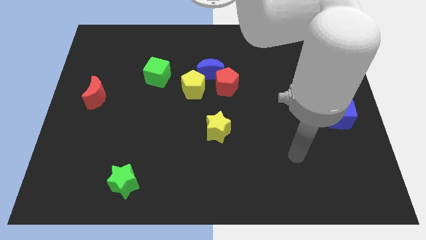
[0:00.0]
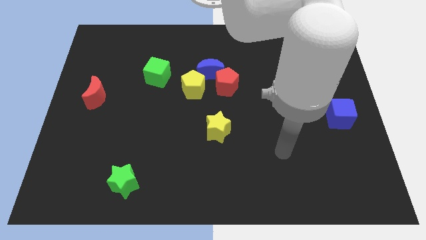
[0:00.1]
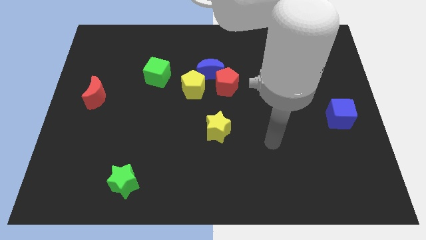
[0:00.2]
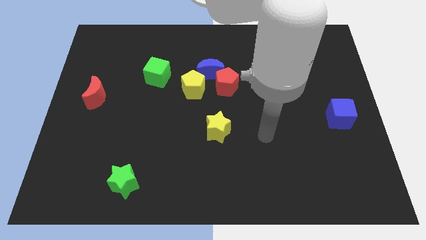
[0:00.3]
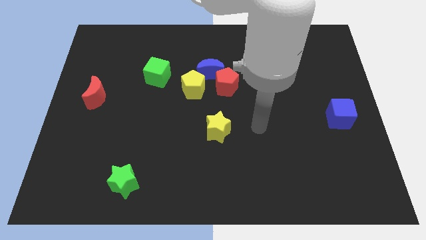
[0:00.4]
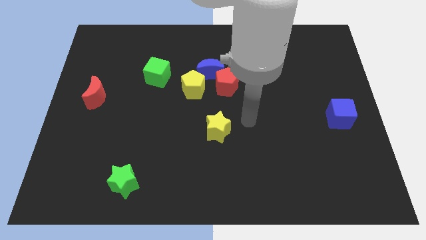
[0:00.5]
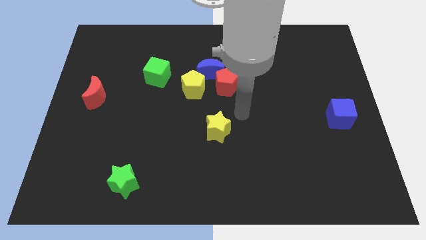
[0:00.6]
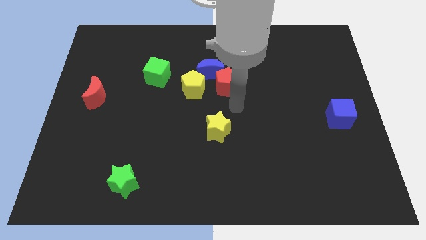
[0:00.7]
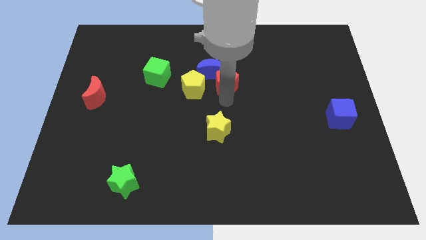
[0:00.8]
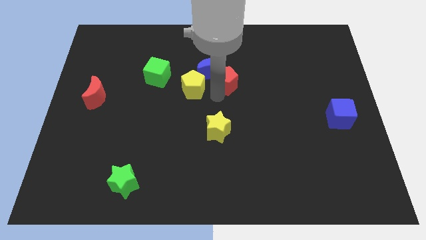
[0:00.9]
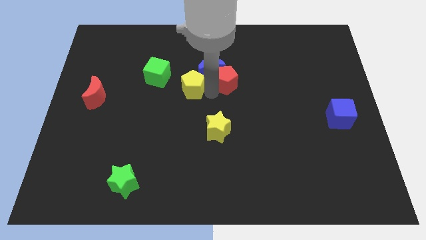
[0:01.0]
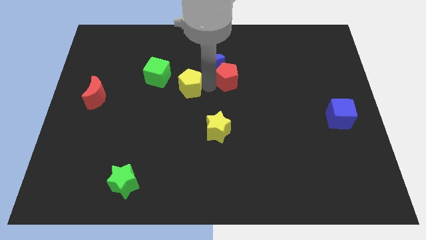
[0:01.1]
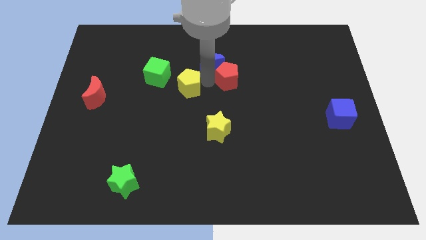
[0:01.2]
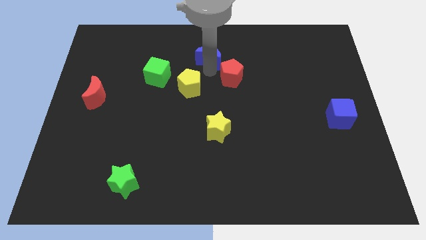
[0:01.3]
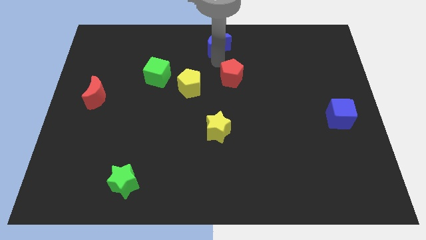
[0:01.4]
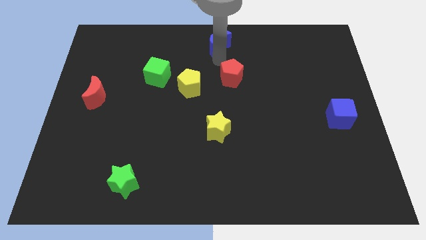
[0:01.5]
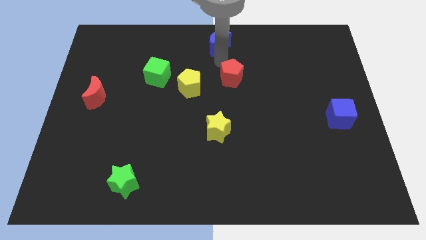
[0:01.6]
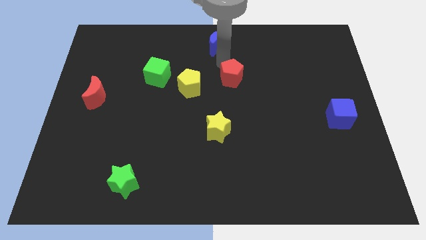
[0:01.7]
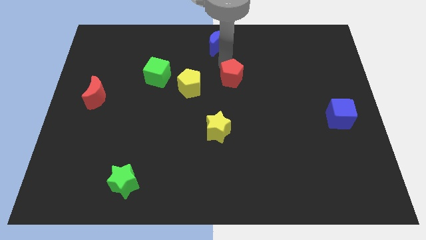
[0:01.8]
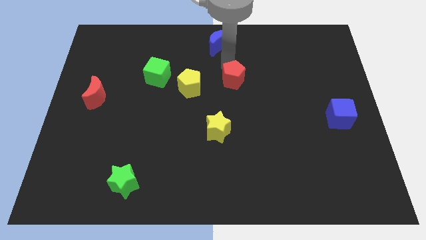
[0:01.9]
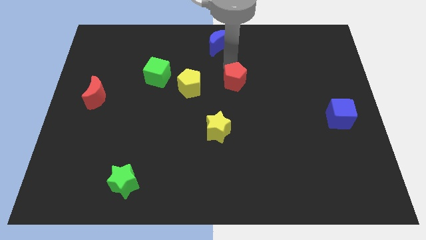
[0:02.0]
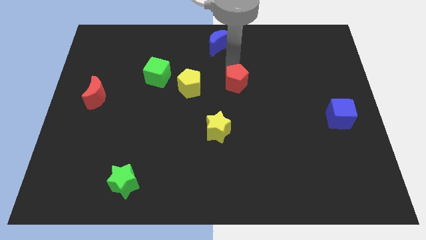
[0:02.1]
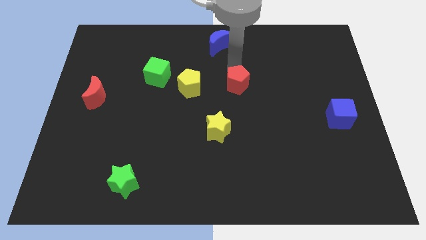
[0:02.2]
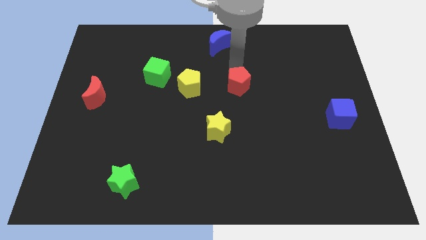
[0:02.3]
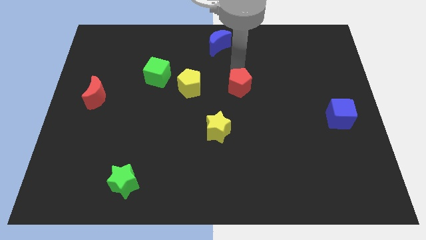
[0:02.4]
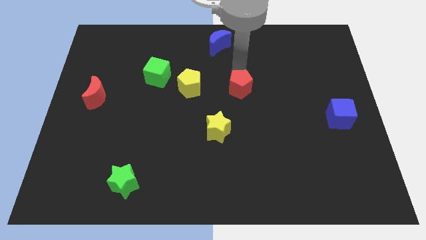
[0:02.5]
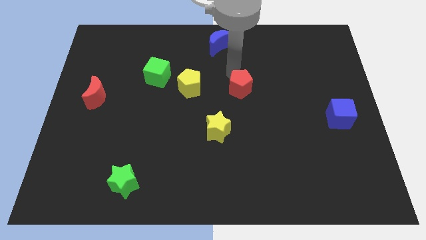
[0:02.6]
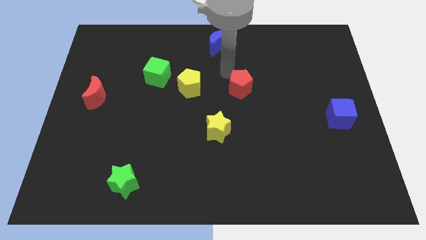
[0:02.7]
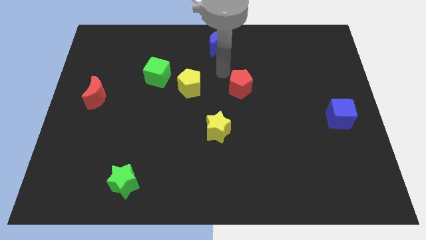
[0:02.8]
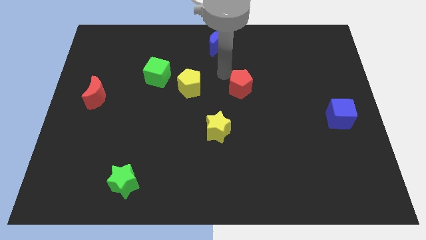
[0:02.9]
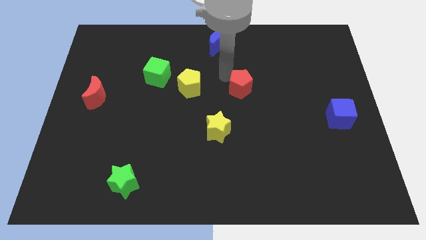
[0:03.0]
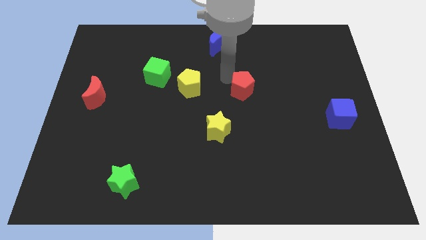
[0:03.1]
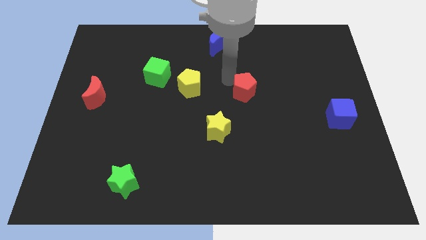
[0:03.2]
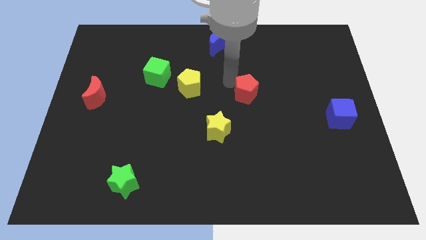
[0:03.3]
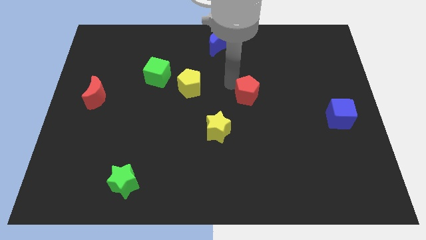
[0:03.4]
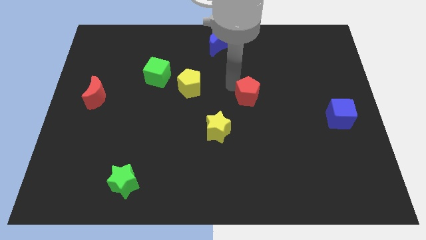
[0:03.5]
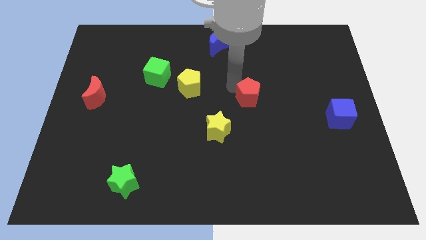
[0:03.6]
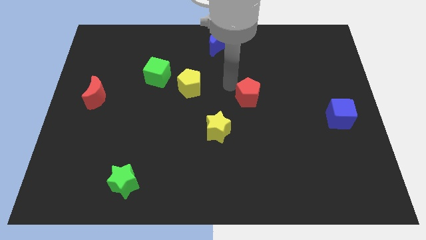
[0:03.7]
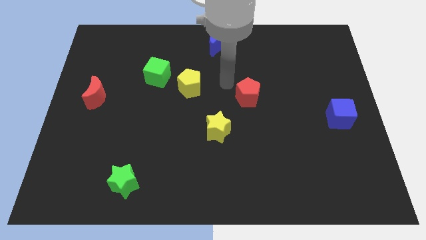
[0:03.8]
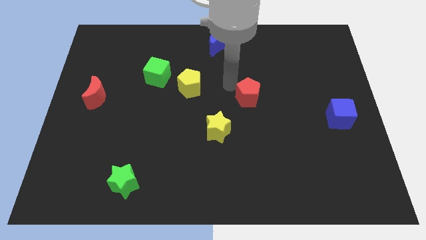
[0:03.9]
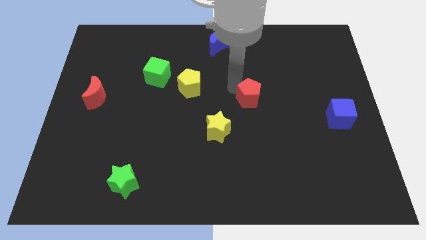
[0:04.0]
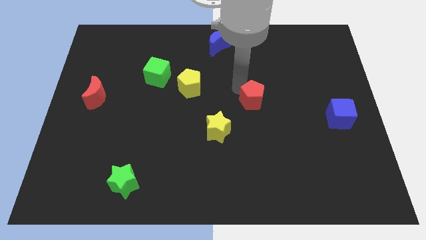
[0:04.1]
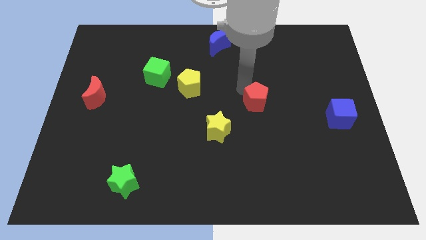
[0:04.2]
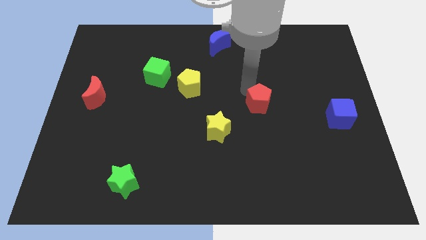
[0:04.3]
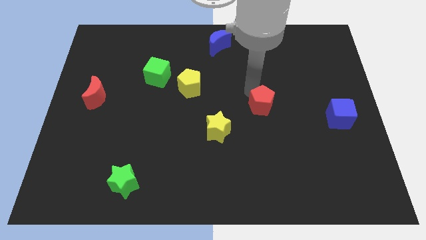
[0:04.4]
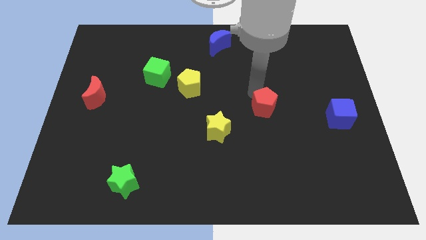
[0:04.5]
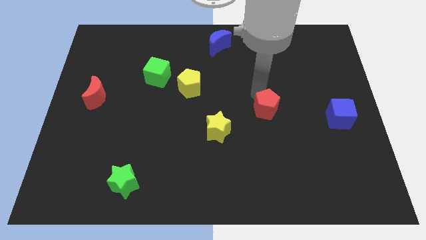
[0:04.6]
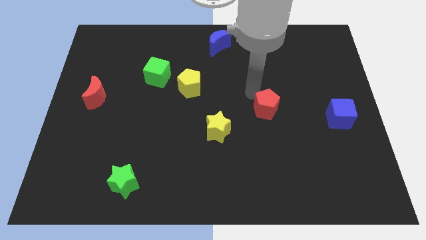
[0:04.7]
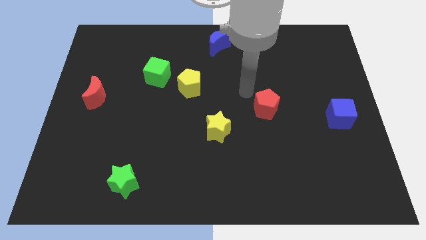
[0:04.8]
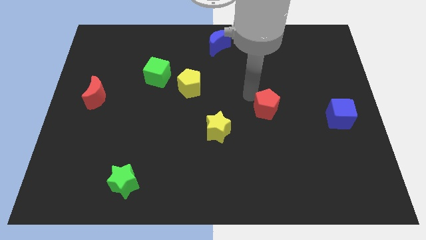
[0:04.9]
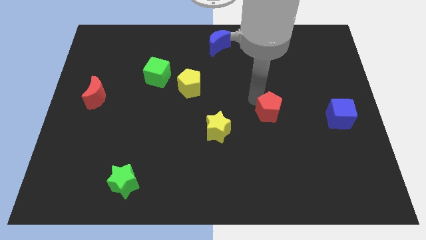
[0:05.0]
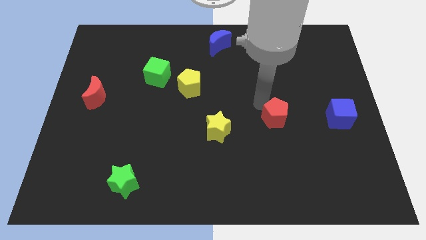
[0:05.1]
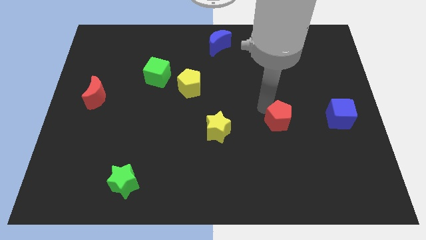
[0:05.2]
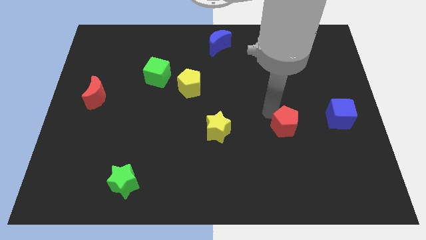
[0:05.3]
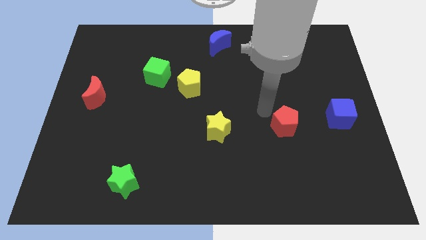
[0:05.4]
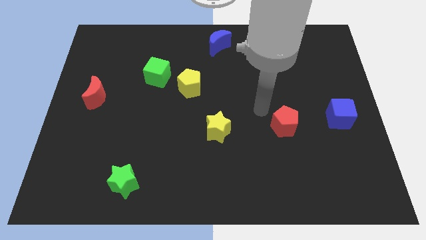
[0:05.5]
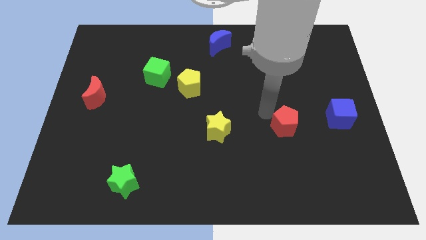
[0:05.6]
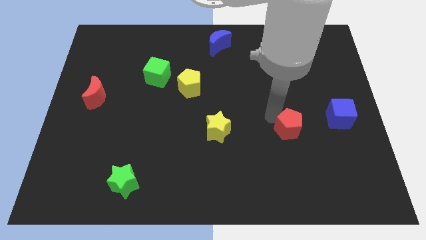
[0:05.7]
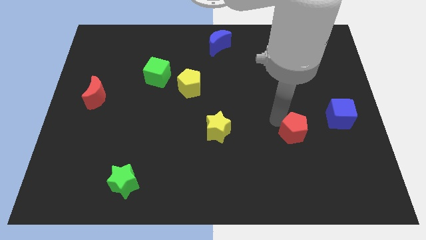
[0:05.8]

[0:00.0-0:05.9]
slide the red pentagon down and then to the right

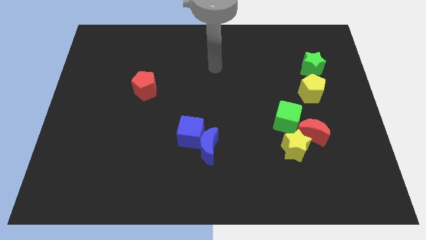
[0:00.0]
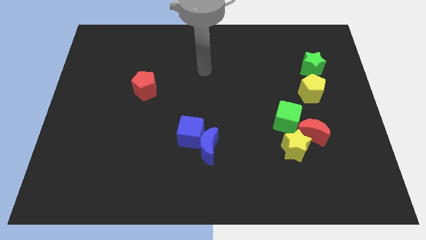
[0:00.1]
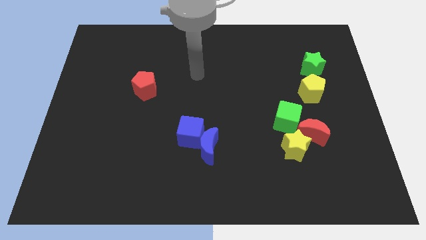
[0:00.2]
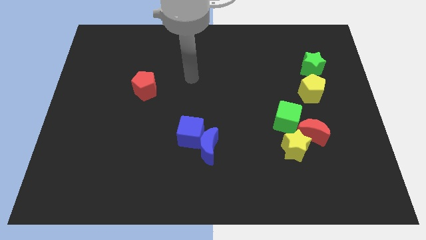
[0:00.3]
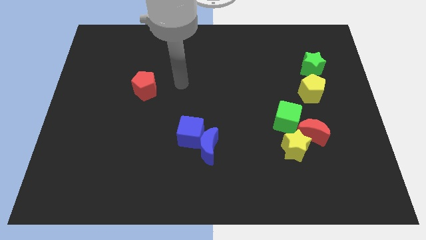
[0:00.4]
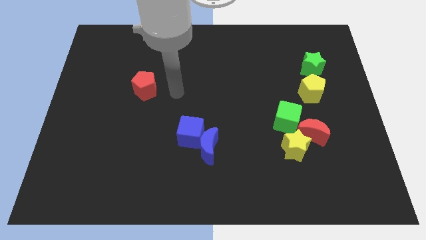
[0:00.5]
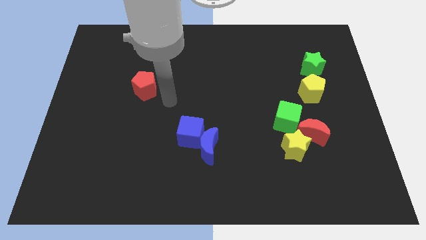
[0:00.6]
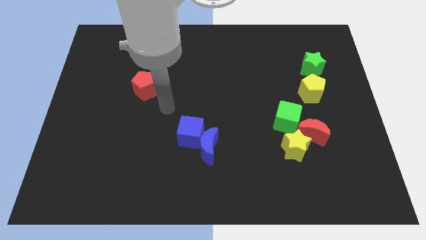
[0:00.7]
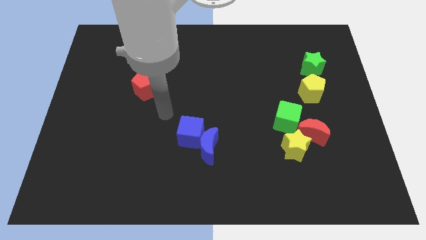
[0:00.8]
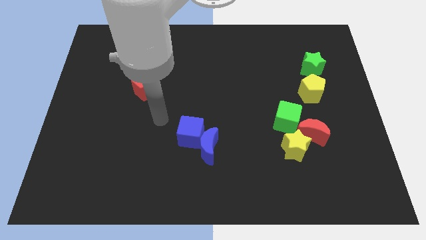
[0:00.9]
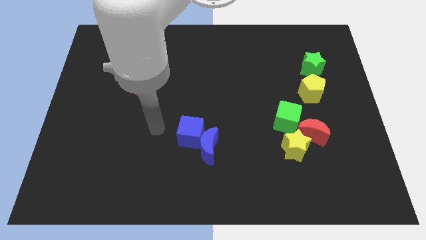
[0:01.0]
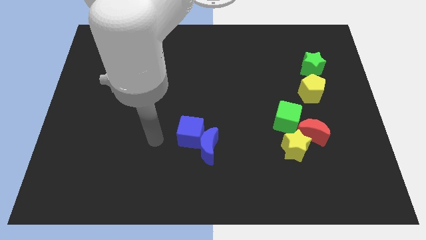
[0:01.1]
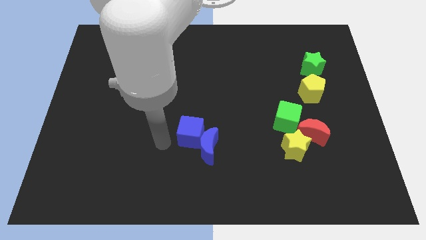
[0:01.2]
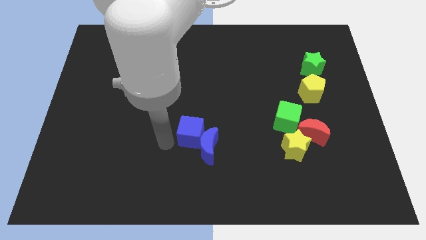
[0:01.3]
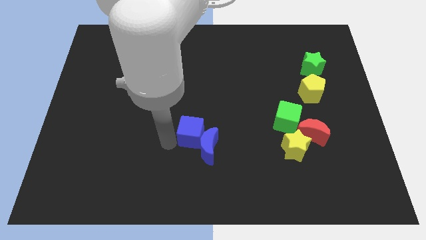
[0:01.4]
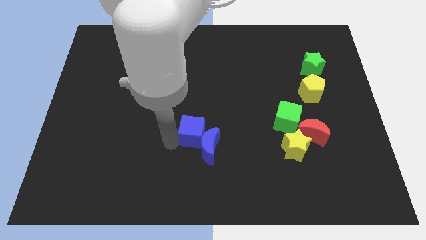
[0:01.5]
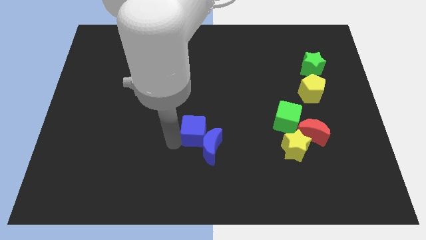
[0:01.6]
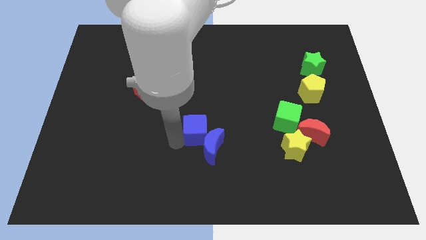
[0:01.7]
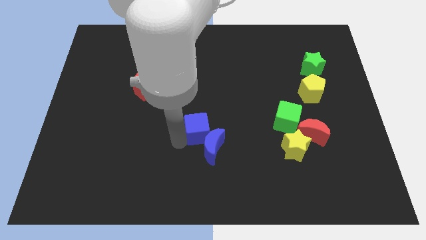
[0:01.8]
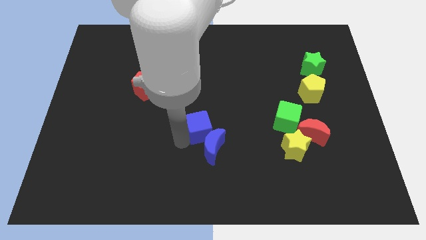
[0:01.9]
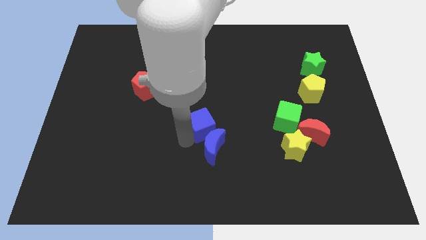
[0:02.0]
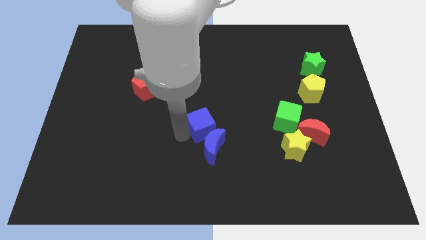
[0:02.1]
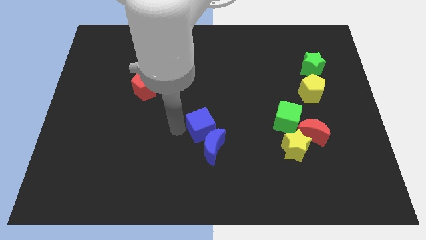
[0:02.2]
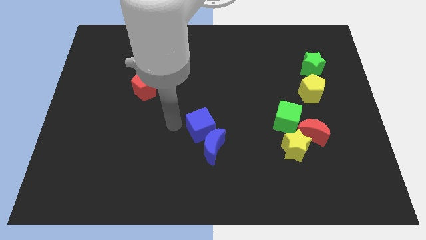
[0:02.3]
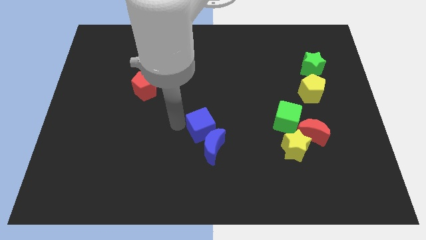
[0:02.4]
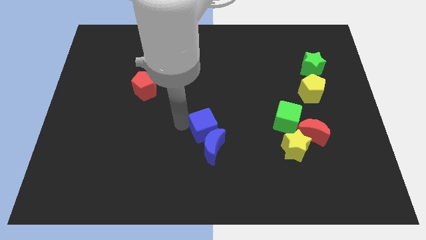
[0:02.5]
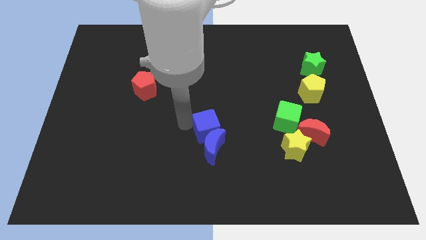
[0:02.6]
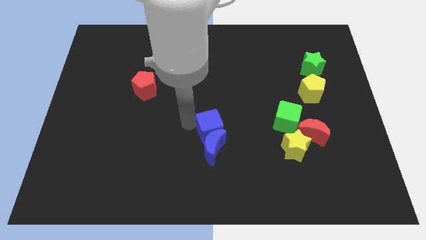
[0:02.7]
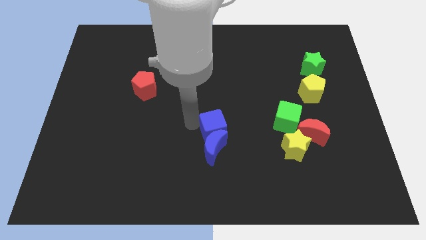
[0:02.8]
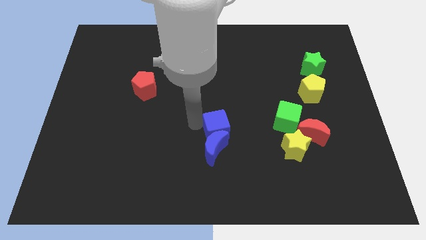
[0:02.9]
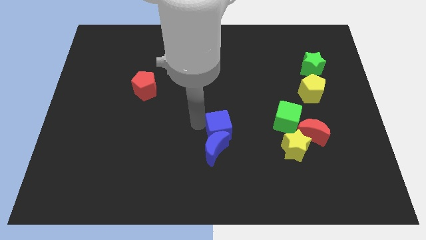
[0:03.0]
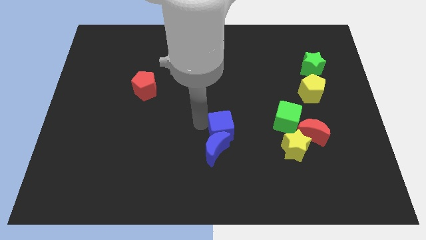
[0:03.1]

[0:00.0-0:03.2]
push the blue cube a bit right
